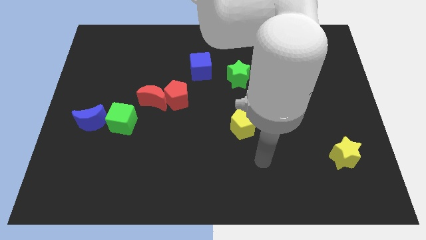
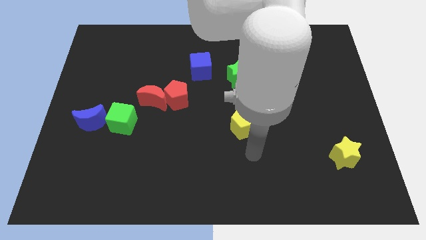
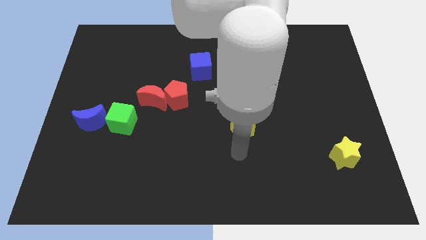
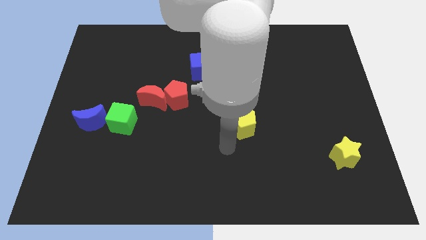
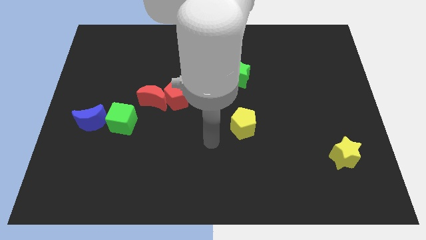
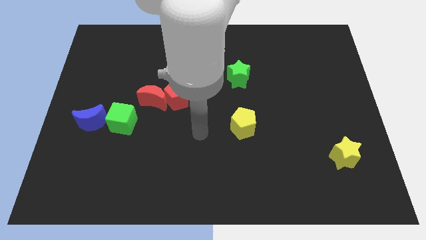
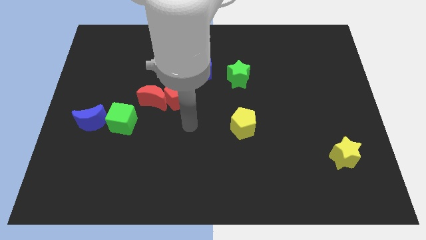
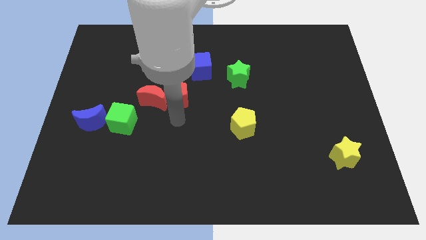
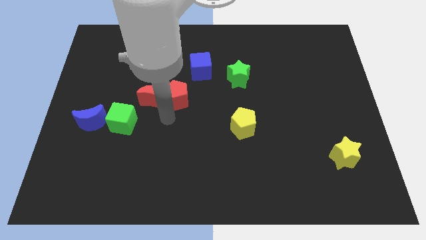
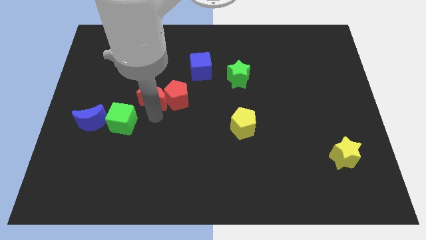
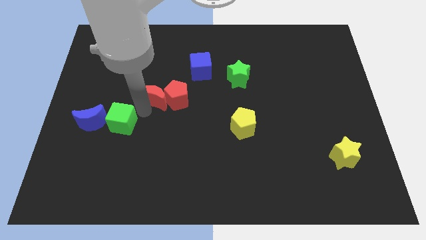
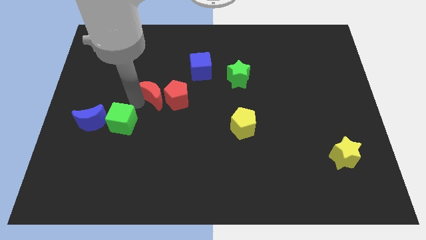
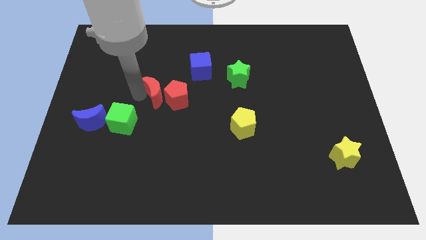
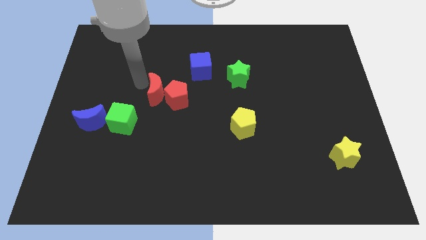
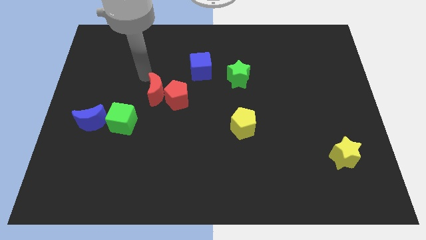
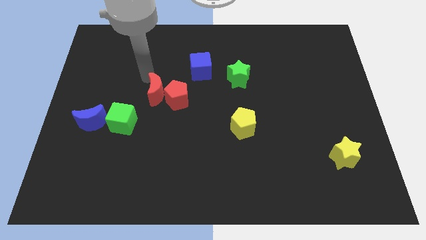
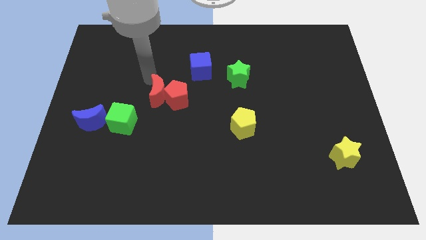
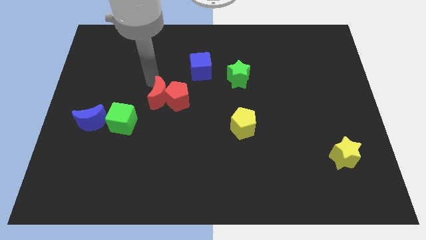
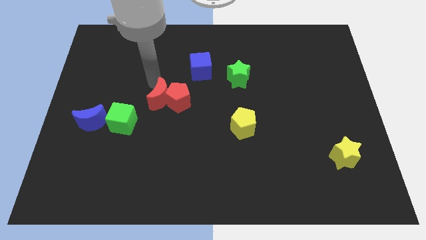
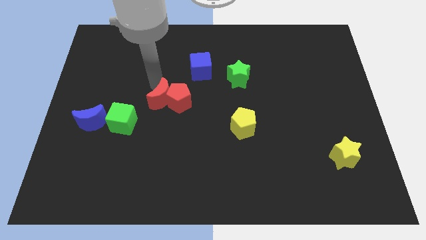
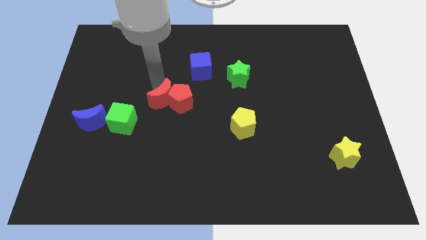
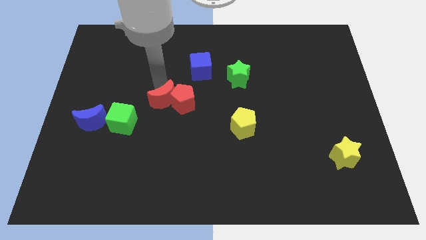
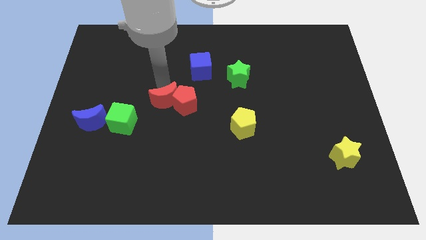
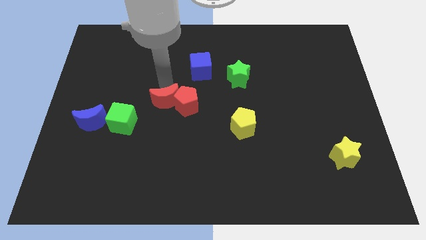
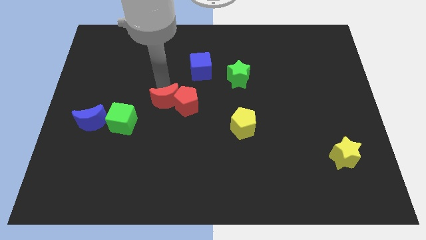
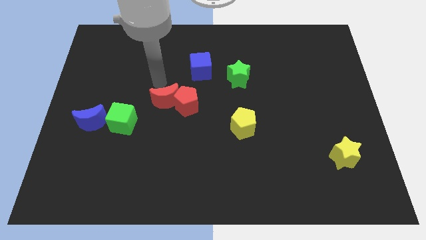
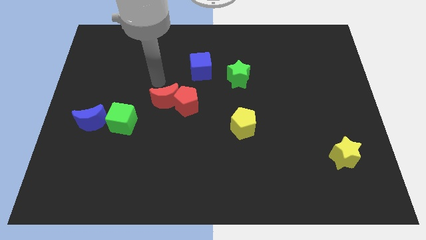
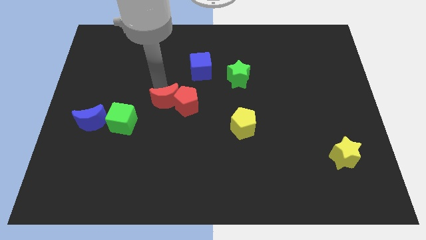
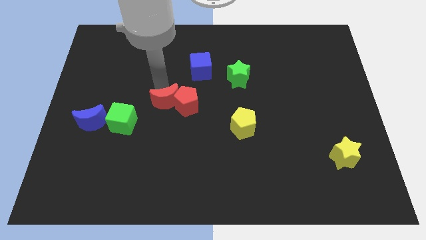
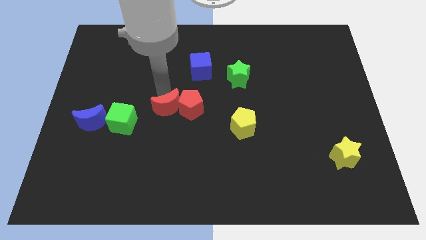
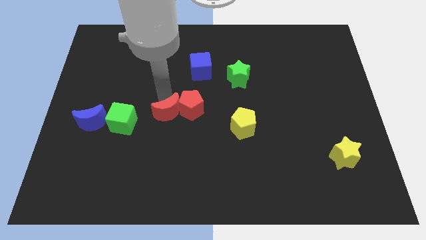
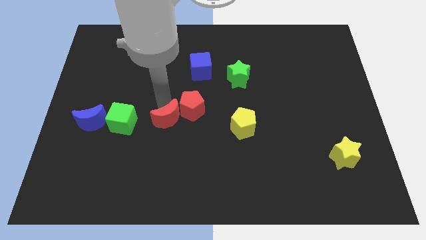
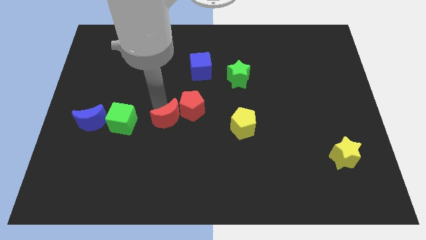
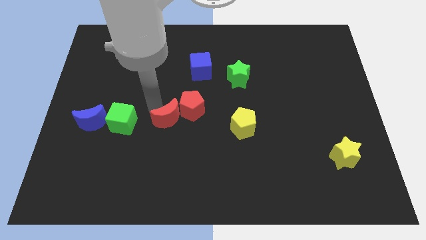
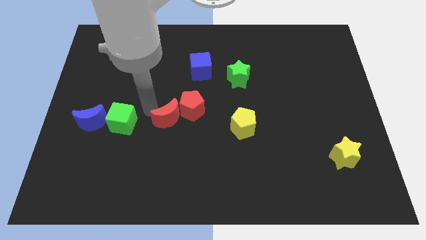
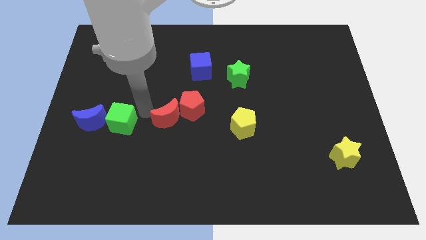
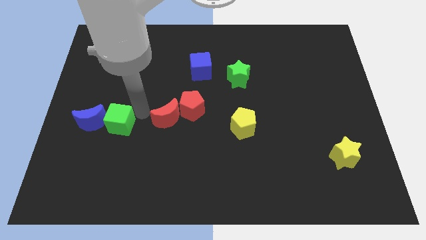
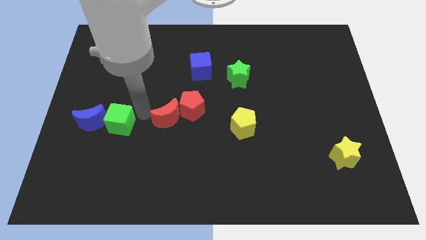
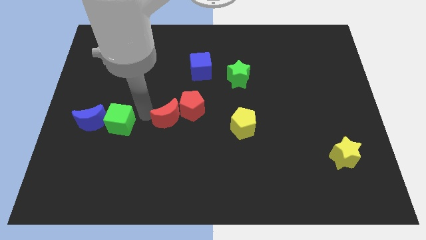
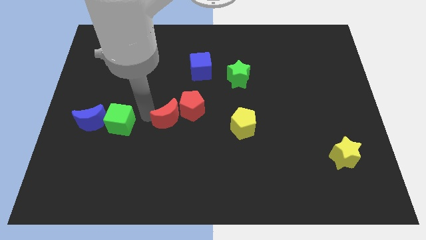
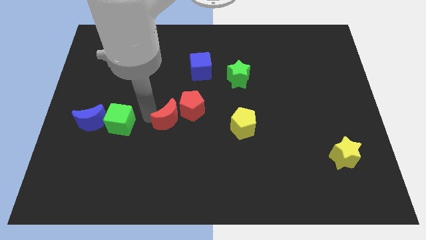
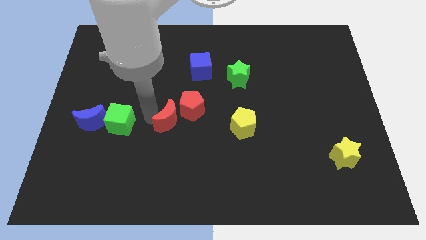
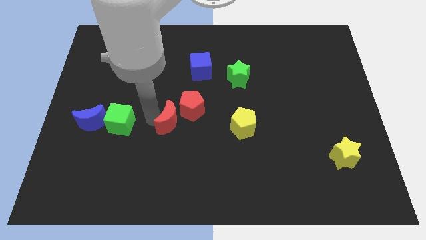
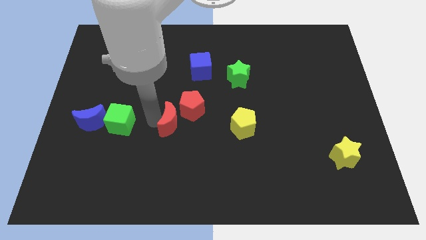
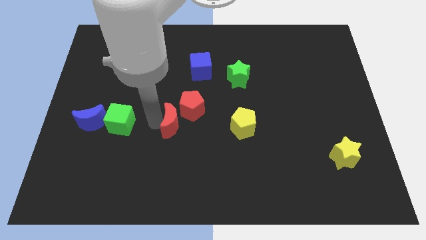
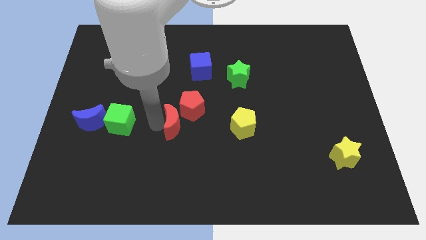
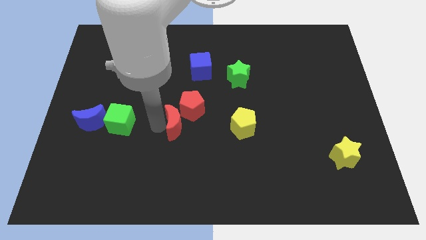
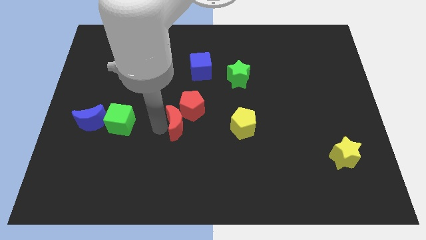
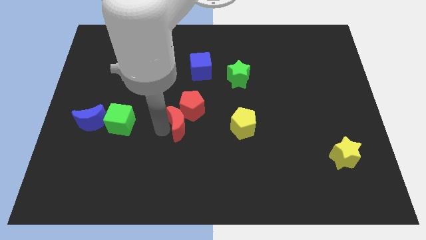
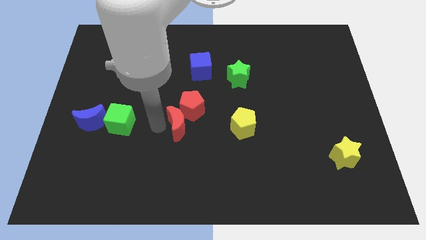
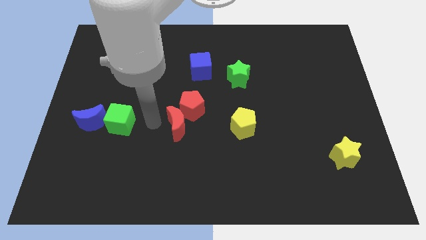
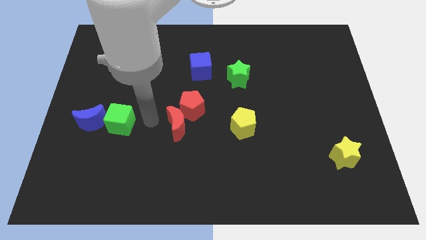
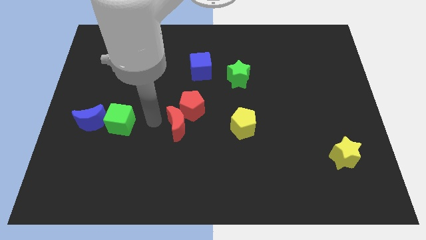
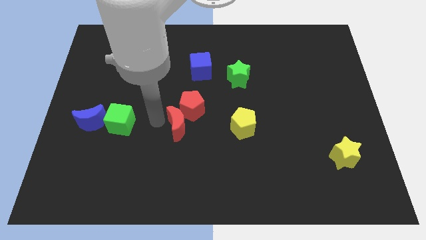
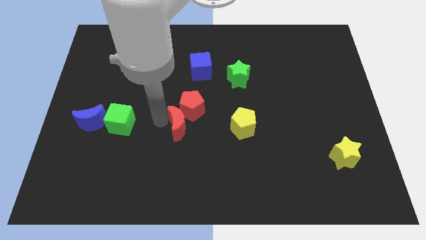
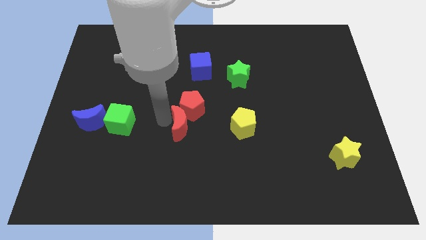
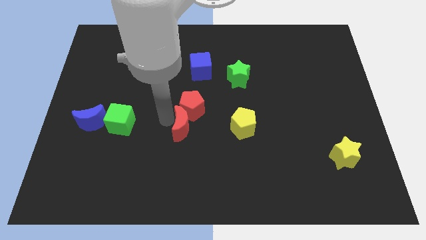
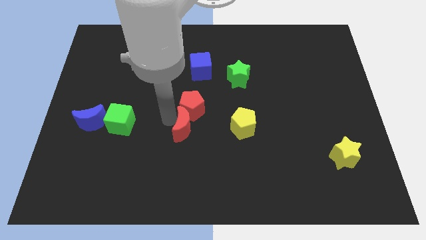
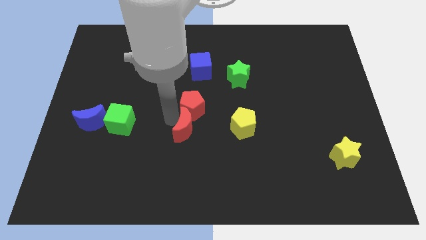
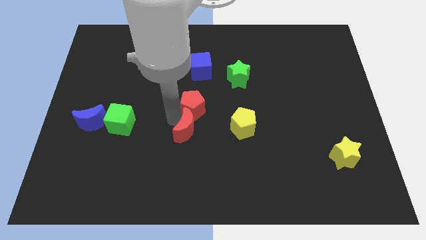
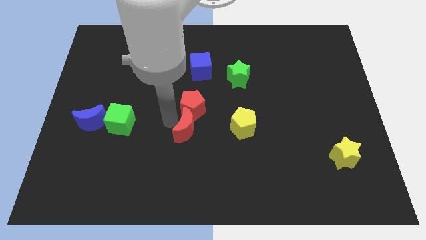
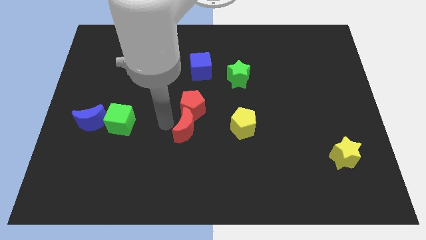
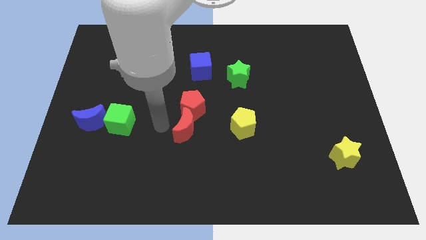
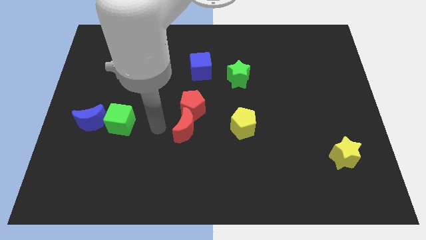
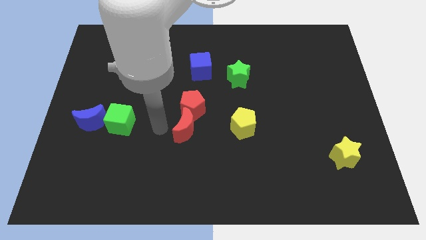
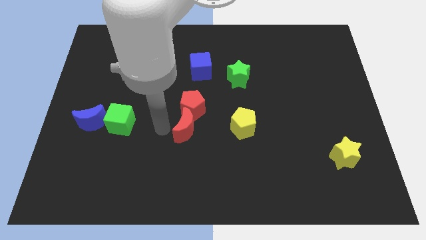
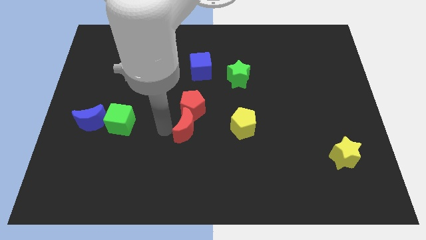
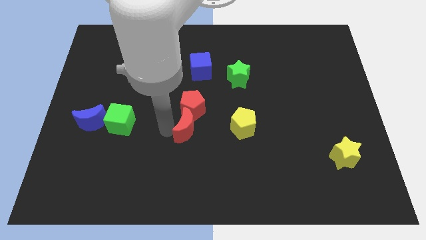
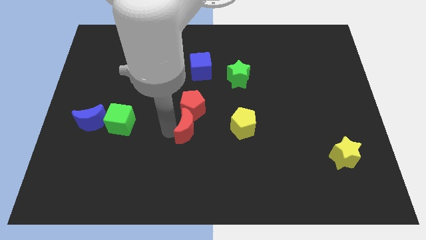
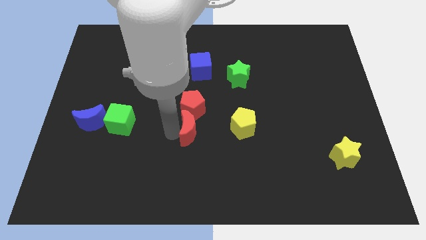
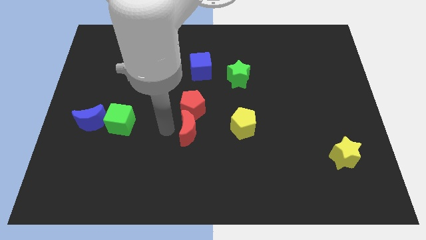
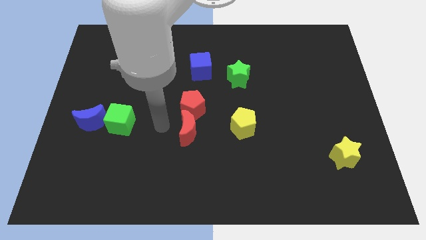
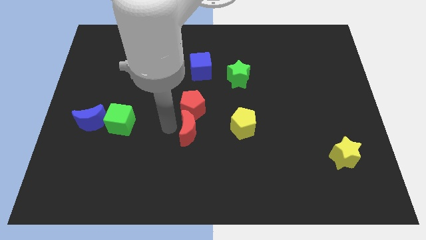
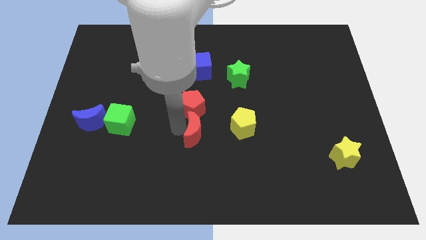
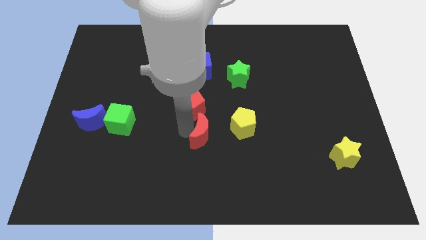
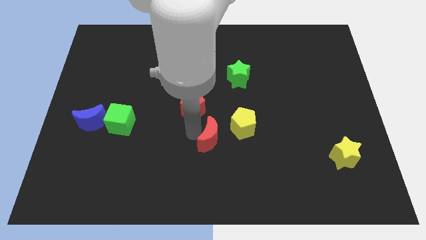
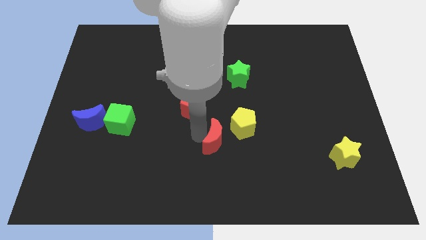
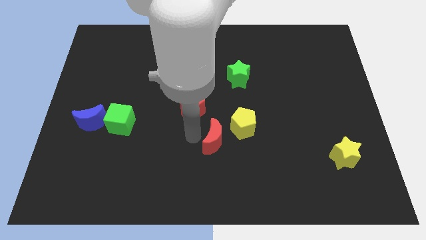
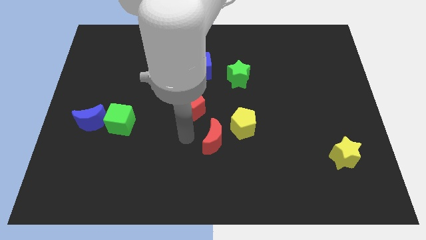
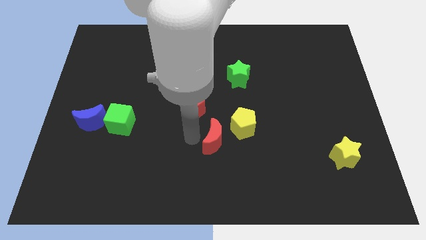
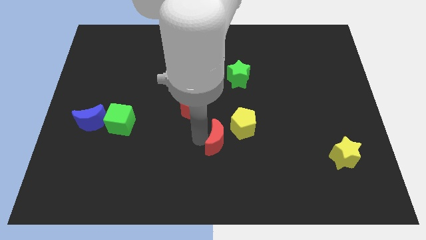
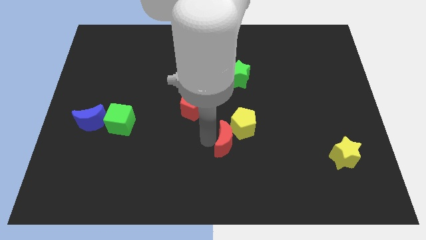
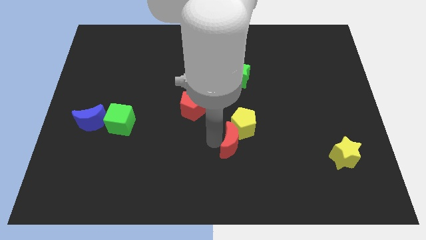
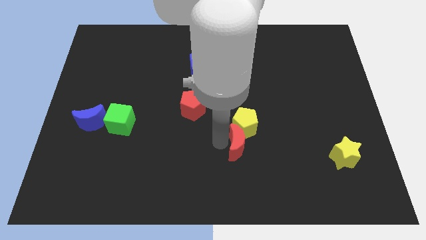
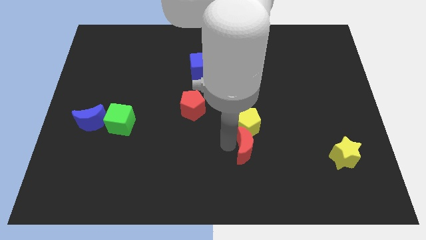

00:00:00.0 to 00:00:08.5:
push the red moon to the bottom right of the yellow pentagon
